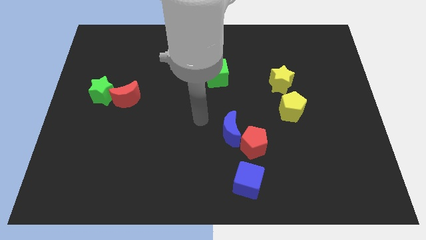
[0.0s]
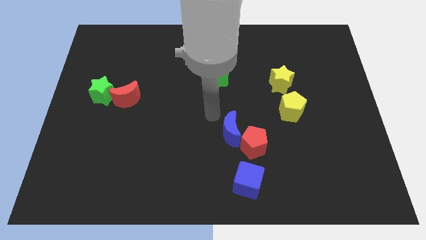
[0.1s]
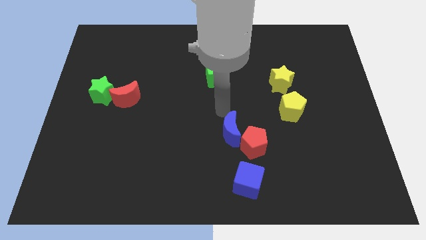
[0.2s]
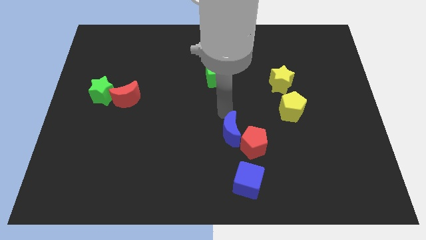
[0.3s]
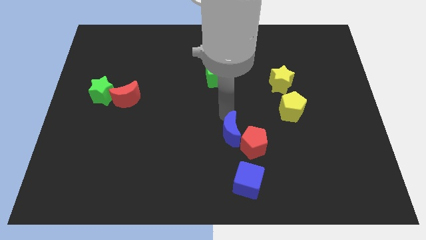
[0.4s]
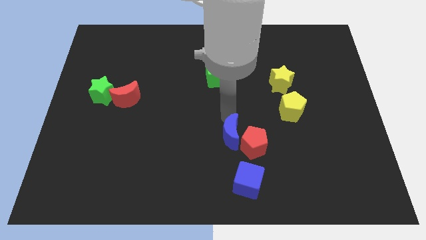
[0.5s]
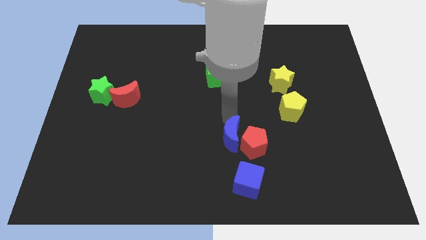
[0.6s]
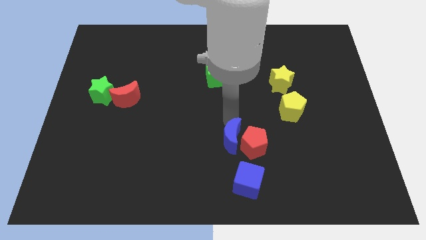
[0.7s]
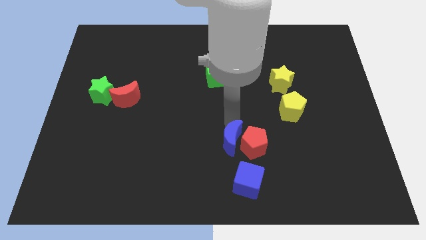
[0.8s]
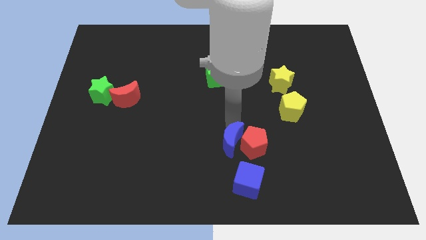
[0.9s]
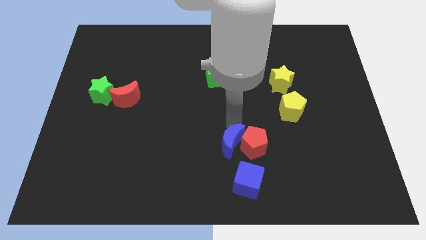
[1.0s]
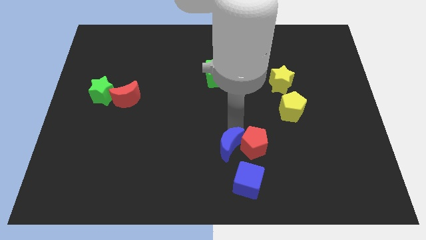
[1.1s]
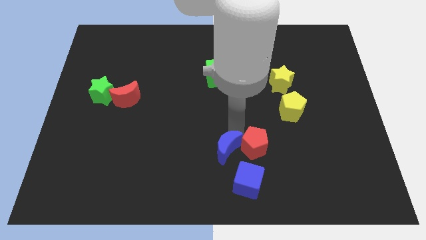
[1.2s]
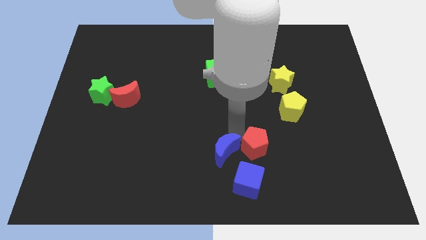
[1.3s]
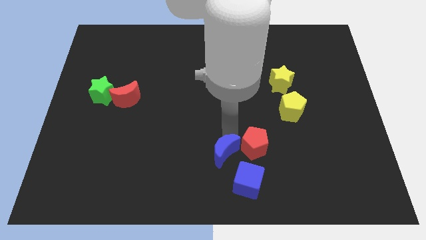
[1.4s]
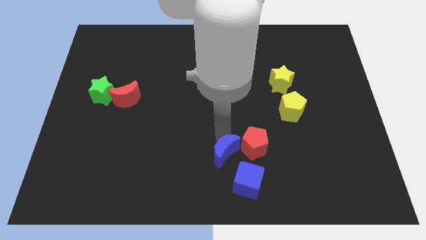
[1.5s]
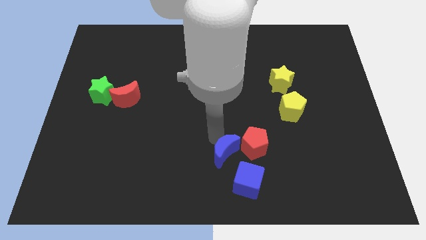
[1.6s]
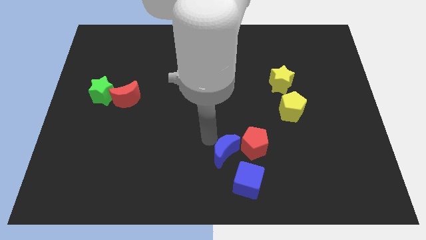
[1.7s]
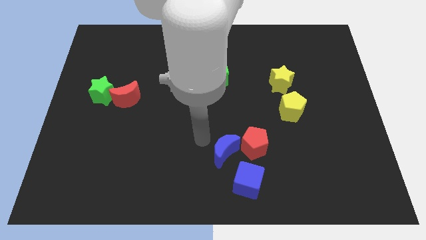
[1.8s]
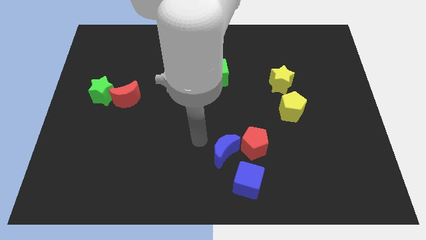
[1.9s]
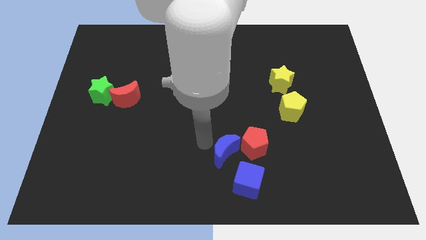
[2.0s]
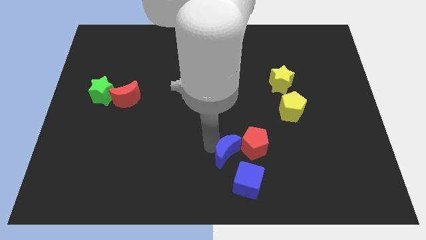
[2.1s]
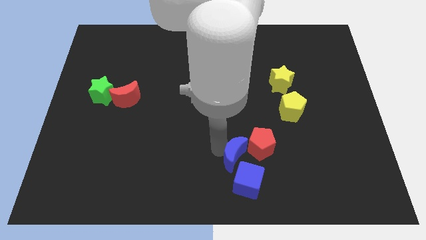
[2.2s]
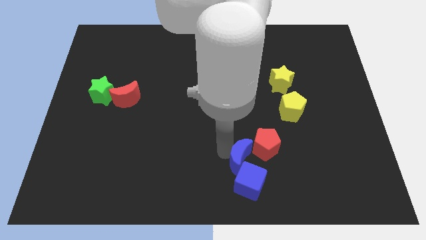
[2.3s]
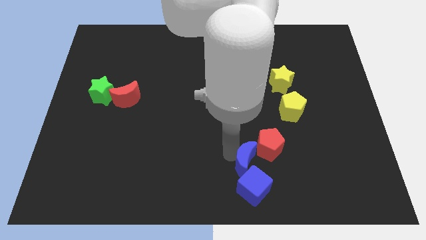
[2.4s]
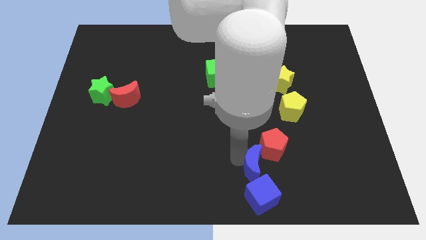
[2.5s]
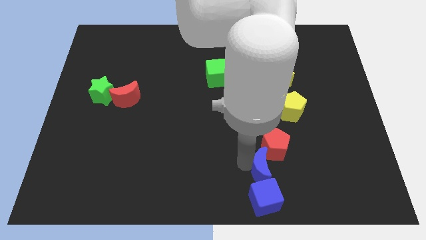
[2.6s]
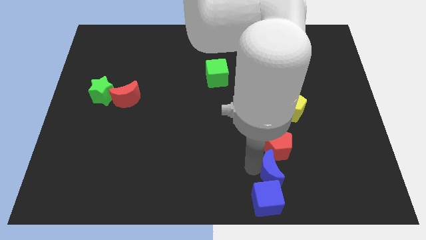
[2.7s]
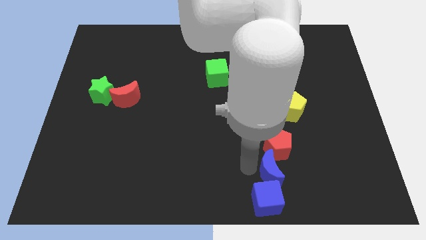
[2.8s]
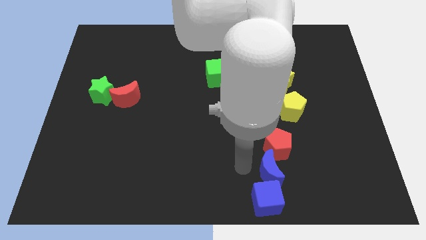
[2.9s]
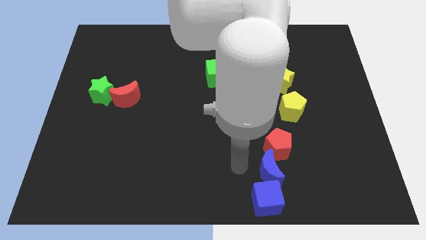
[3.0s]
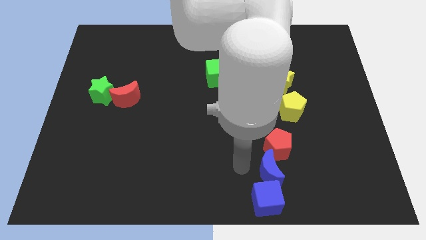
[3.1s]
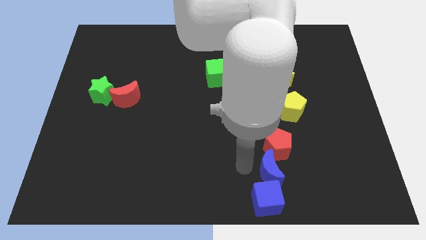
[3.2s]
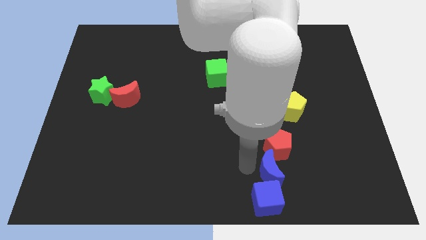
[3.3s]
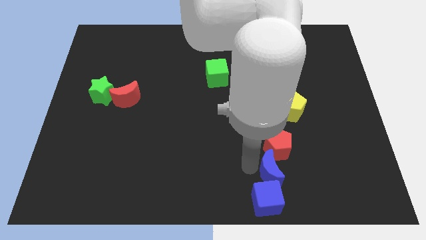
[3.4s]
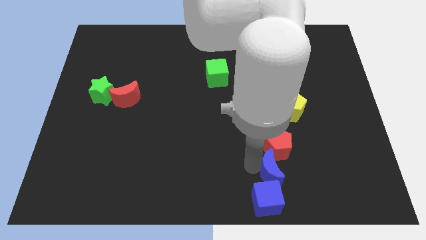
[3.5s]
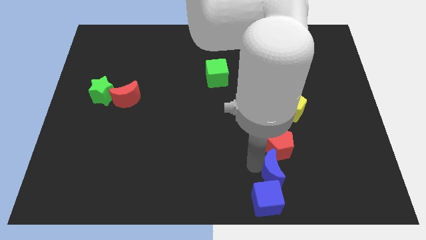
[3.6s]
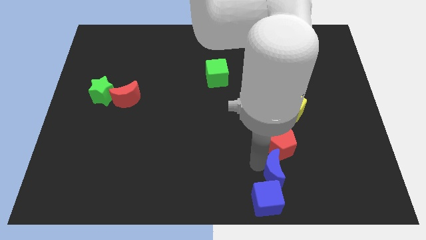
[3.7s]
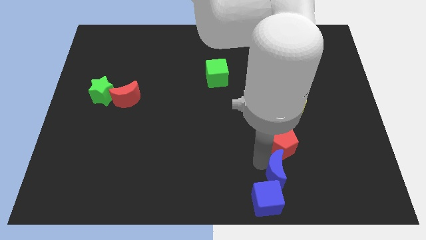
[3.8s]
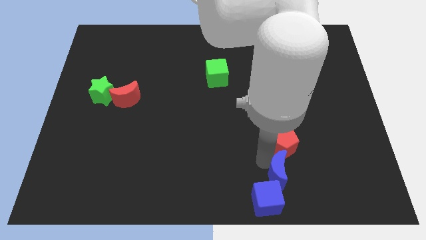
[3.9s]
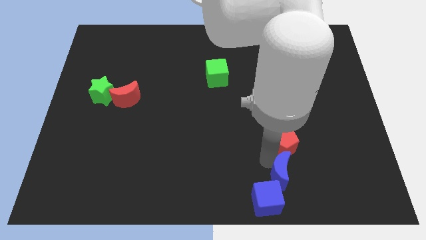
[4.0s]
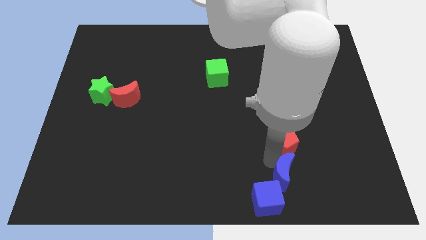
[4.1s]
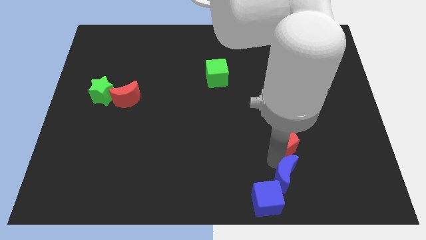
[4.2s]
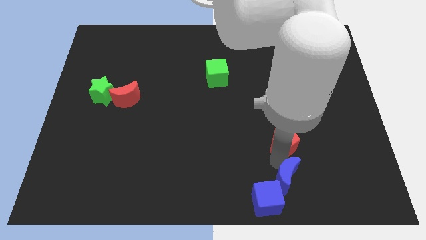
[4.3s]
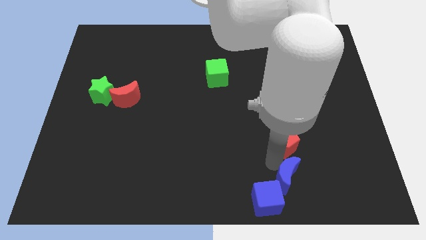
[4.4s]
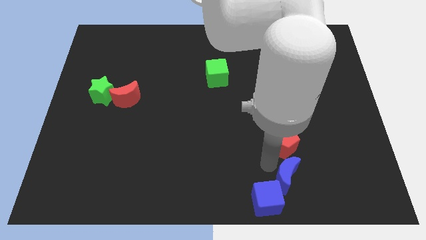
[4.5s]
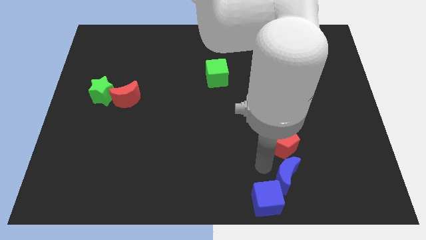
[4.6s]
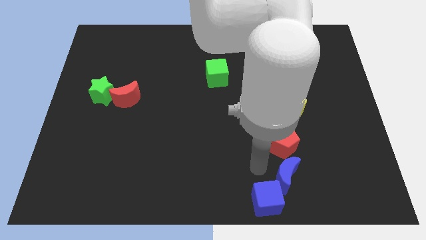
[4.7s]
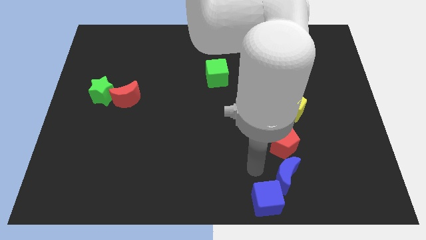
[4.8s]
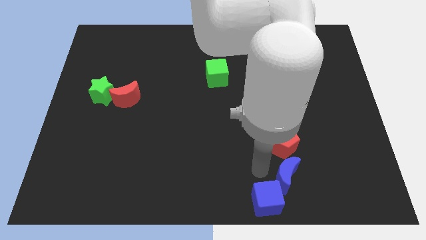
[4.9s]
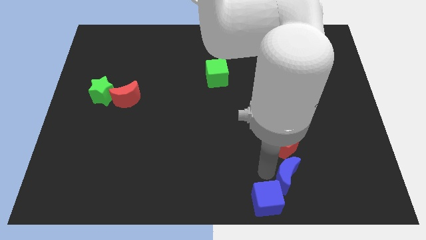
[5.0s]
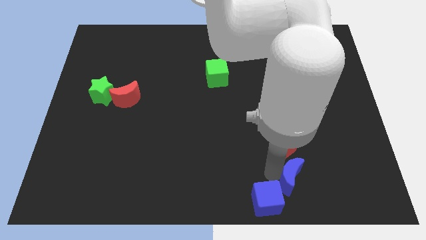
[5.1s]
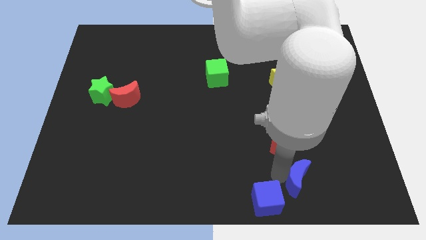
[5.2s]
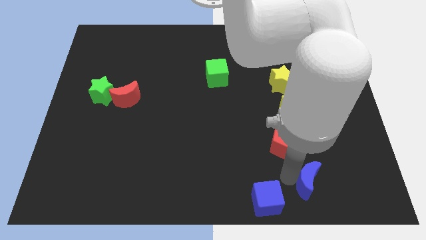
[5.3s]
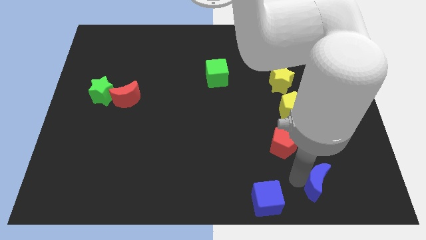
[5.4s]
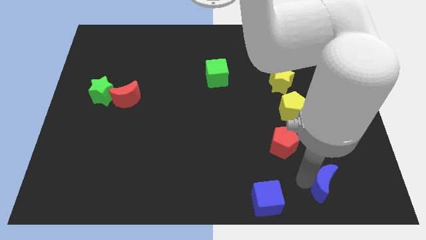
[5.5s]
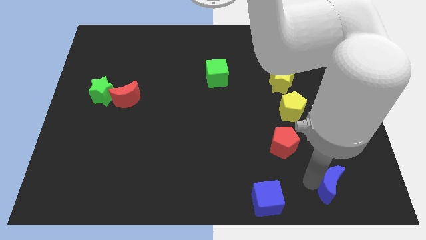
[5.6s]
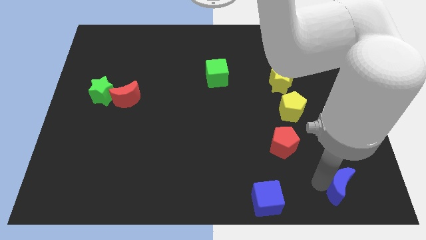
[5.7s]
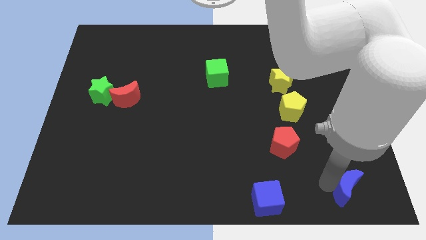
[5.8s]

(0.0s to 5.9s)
put the blue moon to the bottom right
